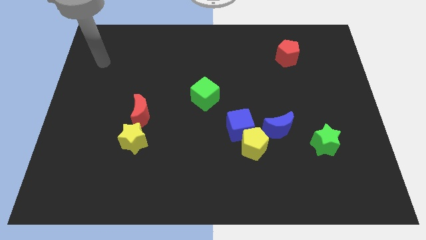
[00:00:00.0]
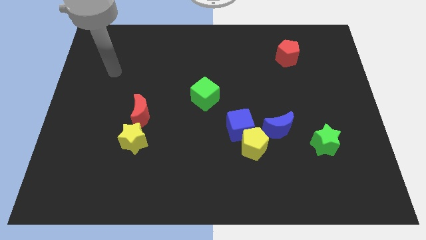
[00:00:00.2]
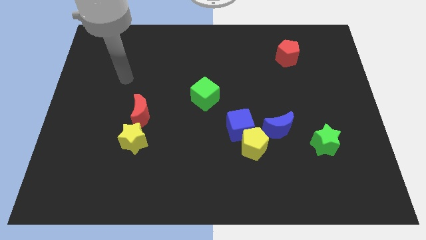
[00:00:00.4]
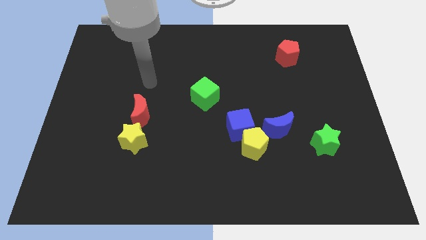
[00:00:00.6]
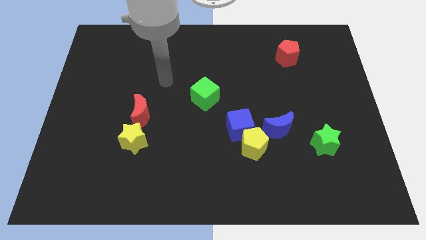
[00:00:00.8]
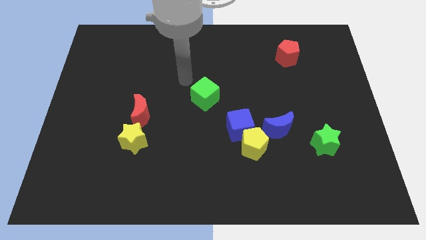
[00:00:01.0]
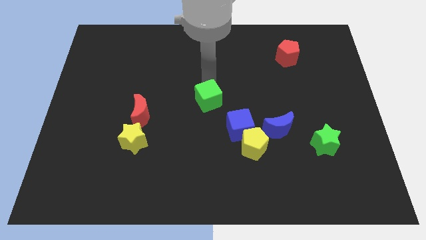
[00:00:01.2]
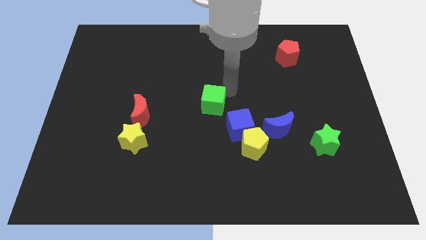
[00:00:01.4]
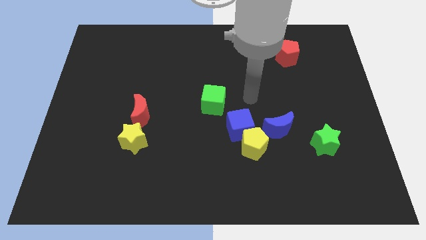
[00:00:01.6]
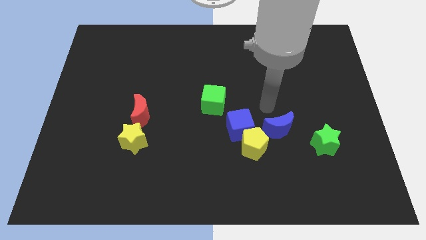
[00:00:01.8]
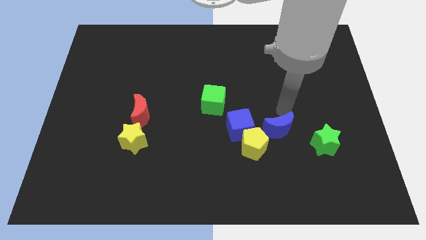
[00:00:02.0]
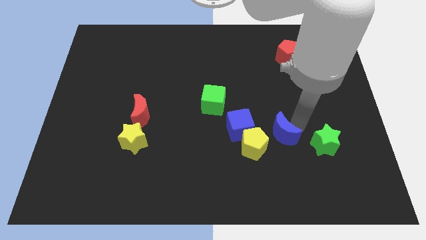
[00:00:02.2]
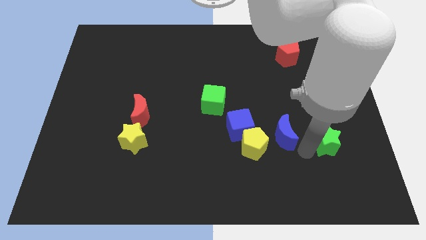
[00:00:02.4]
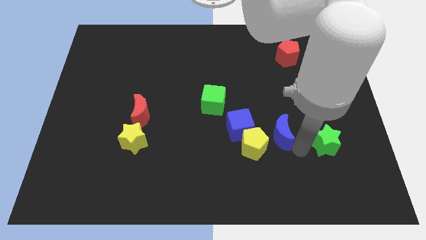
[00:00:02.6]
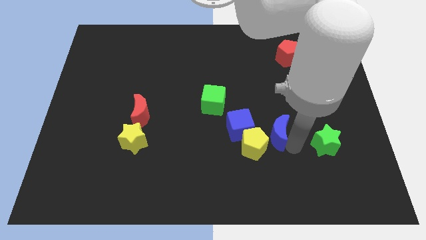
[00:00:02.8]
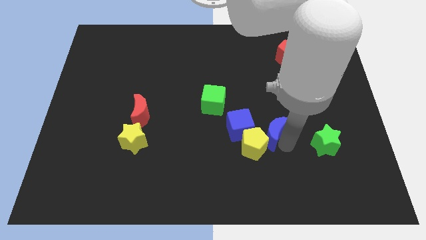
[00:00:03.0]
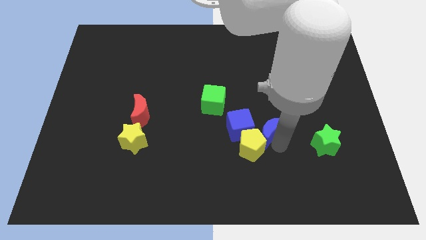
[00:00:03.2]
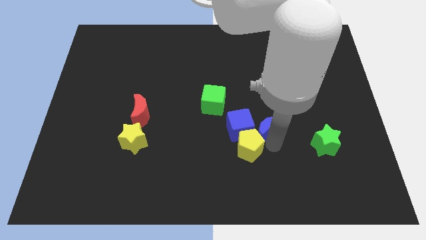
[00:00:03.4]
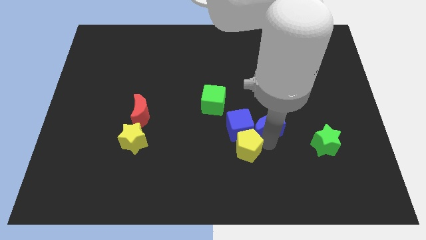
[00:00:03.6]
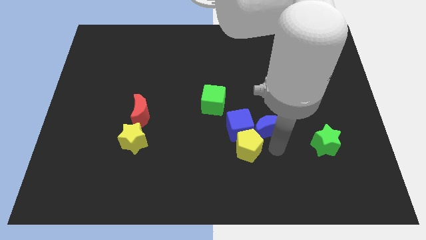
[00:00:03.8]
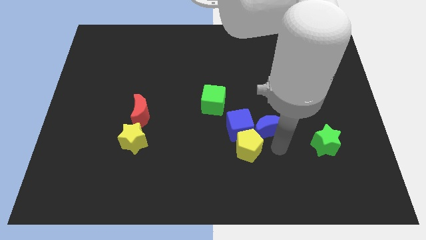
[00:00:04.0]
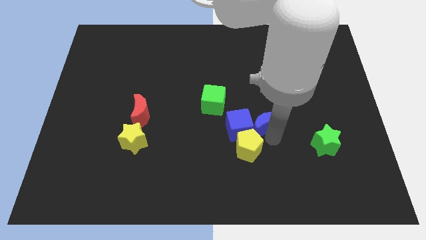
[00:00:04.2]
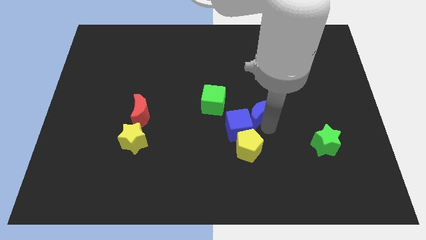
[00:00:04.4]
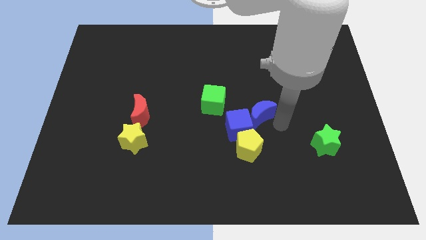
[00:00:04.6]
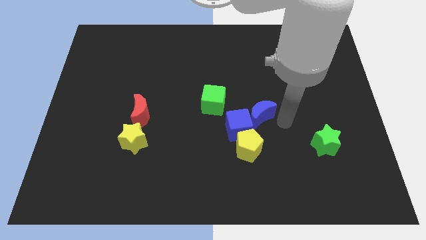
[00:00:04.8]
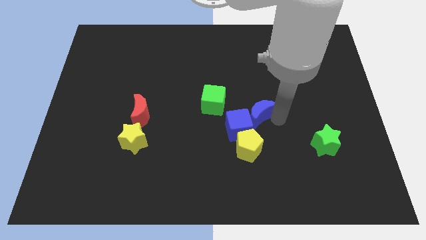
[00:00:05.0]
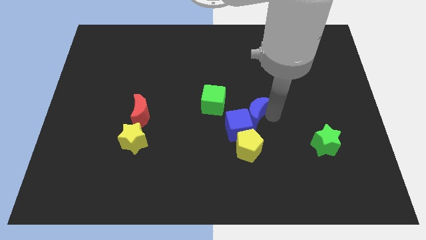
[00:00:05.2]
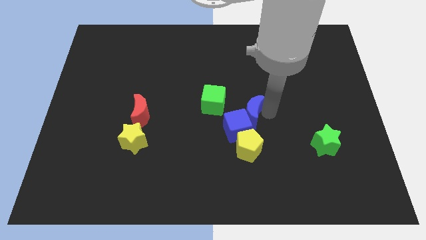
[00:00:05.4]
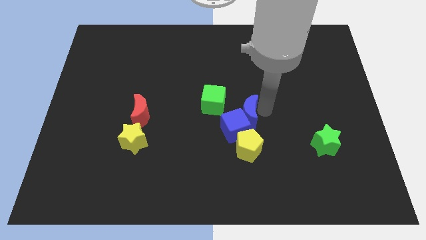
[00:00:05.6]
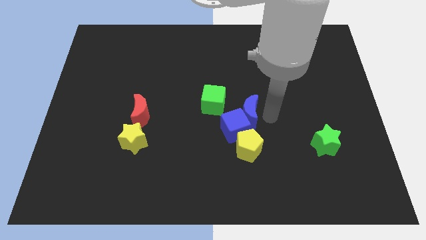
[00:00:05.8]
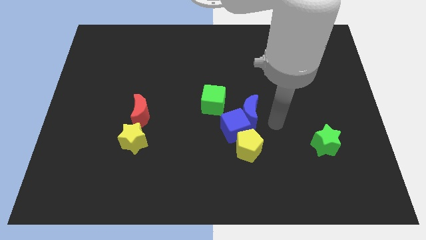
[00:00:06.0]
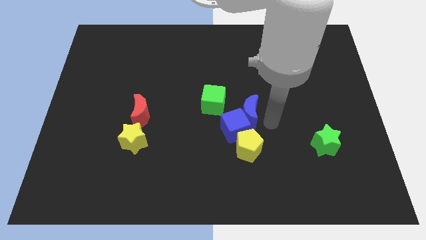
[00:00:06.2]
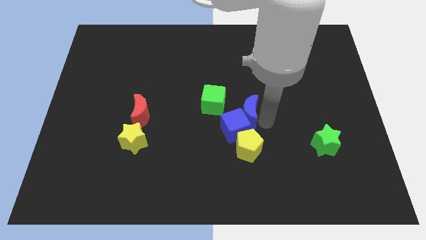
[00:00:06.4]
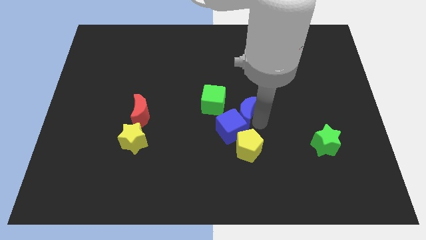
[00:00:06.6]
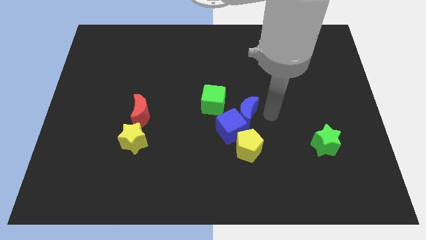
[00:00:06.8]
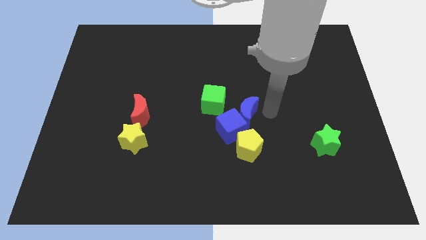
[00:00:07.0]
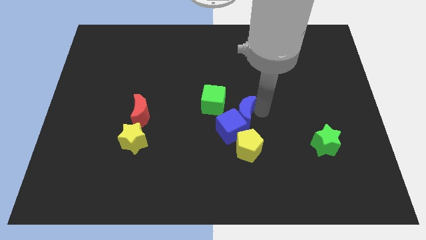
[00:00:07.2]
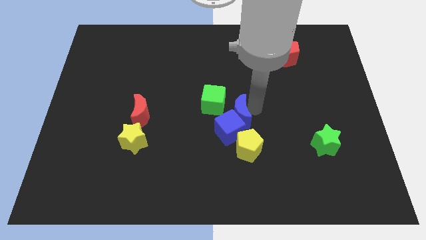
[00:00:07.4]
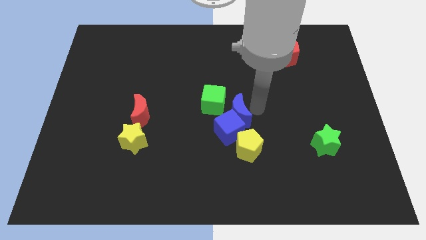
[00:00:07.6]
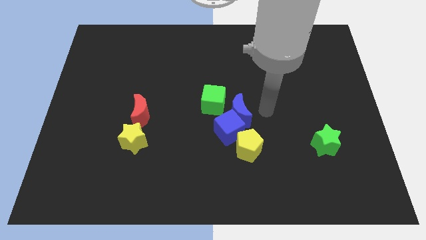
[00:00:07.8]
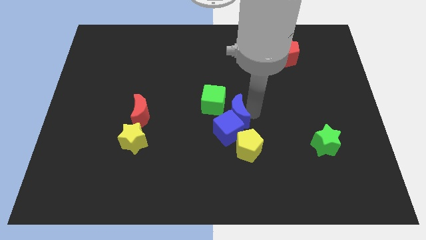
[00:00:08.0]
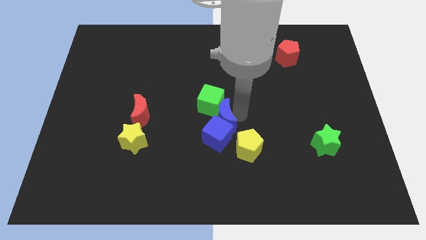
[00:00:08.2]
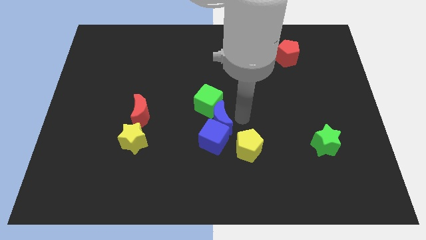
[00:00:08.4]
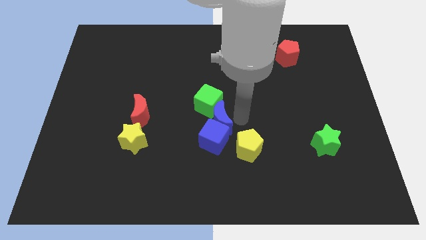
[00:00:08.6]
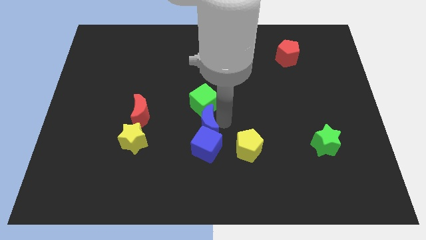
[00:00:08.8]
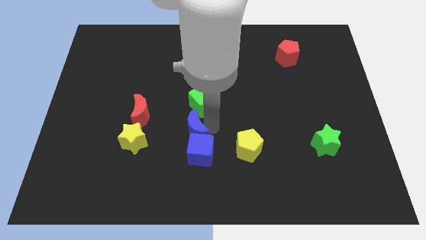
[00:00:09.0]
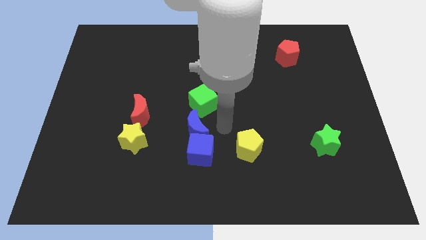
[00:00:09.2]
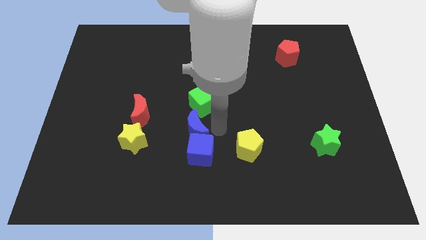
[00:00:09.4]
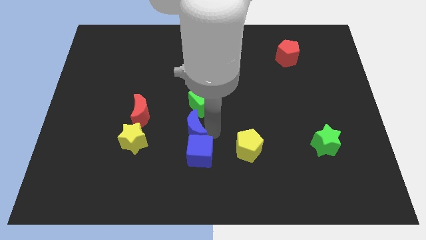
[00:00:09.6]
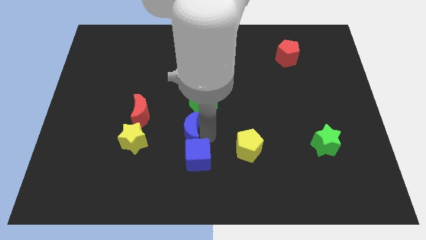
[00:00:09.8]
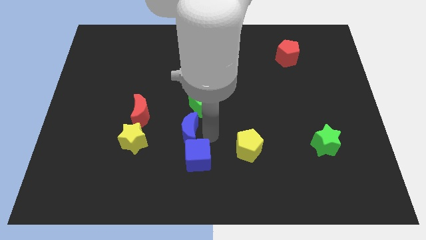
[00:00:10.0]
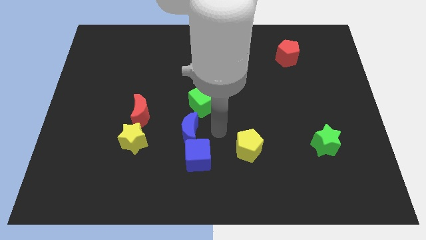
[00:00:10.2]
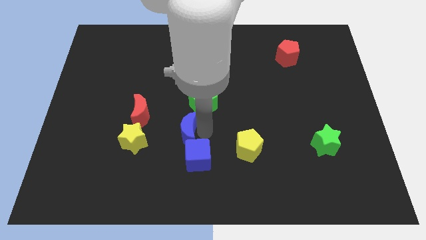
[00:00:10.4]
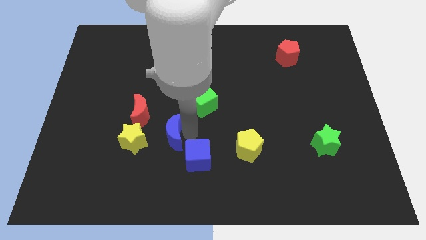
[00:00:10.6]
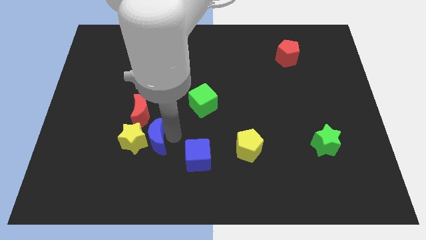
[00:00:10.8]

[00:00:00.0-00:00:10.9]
move the blue moon close to the yellow star

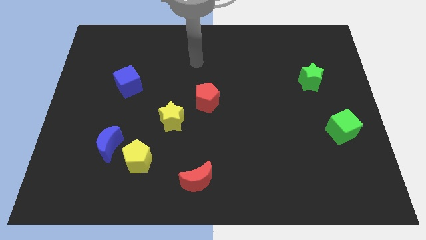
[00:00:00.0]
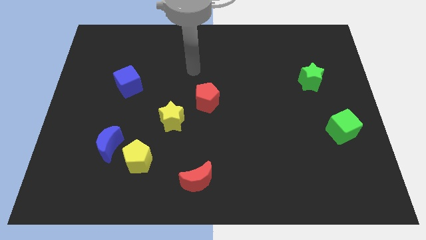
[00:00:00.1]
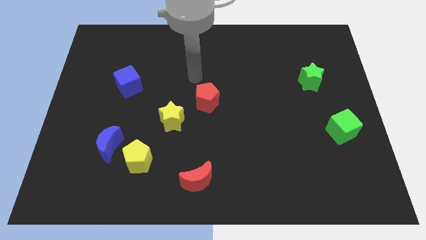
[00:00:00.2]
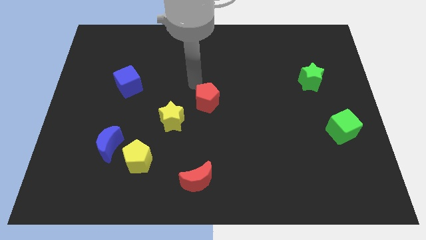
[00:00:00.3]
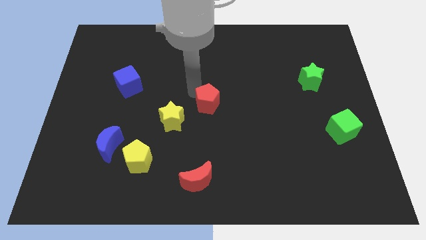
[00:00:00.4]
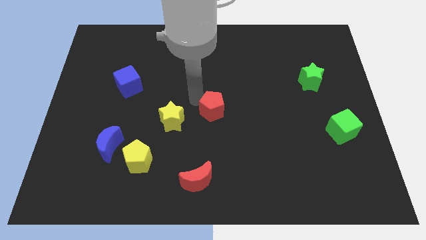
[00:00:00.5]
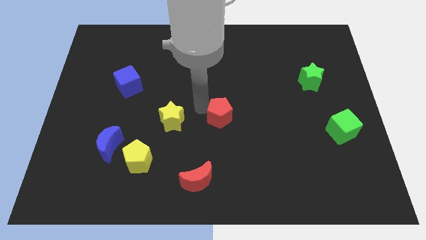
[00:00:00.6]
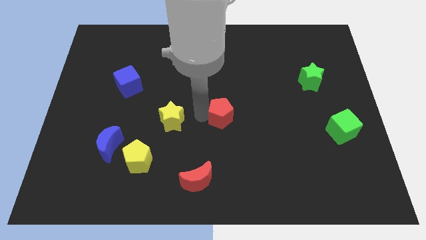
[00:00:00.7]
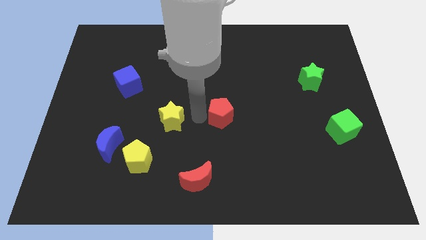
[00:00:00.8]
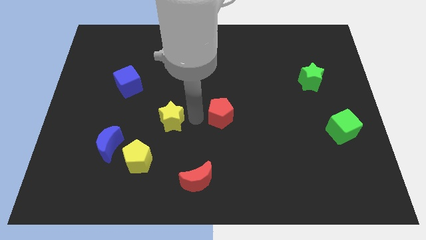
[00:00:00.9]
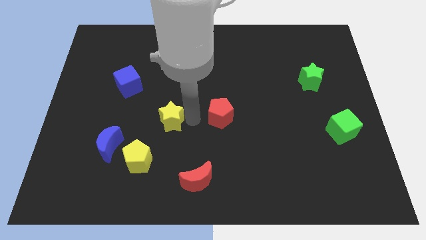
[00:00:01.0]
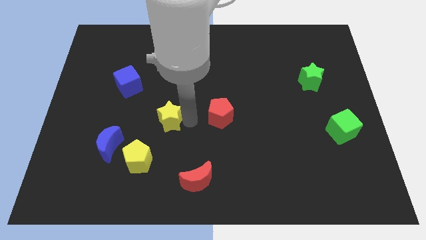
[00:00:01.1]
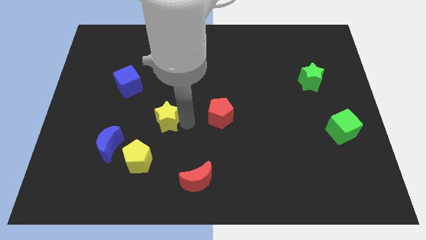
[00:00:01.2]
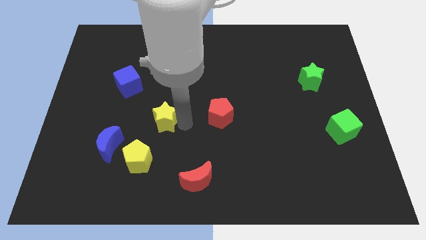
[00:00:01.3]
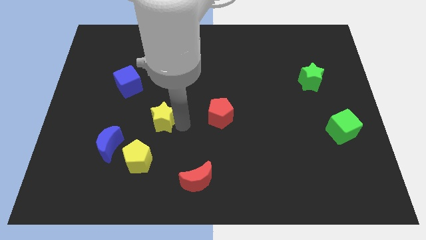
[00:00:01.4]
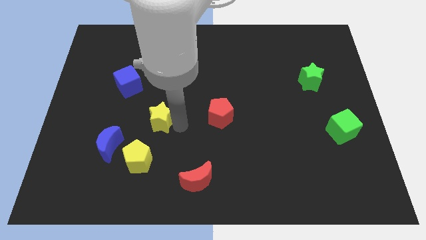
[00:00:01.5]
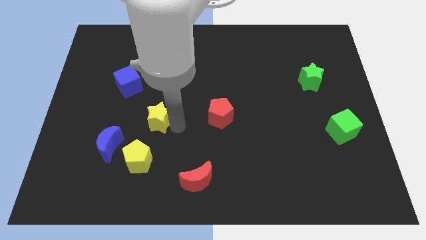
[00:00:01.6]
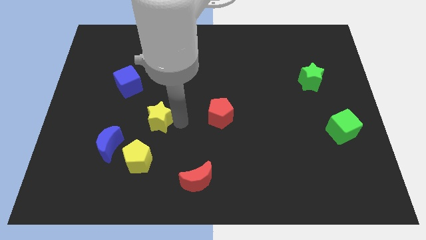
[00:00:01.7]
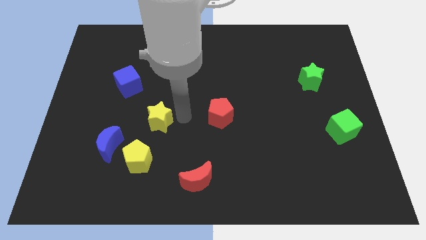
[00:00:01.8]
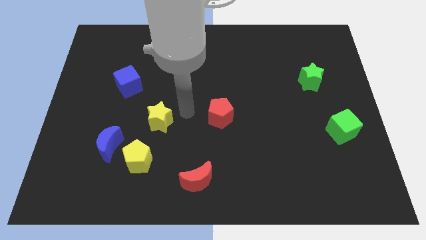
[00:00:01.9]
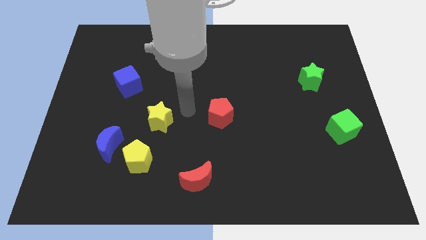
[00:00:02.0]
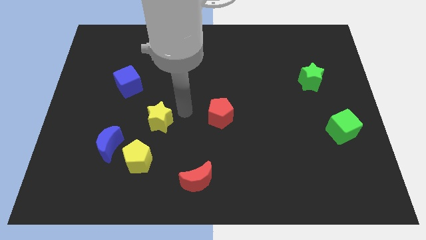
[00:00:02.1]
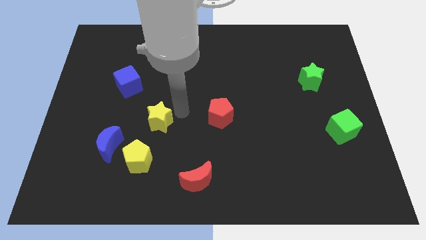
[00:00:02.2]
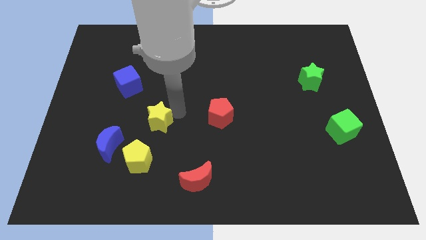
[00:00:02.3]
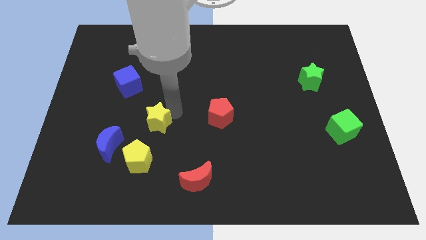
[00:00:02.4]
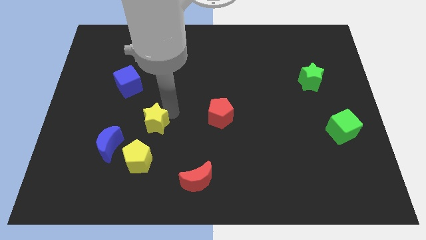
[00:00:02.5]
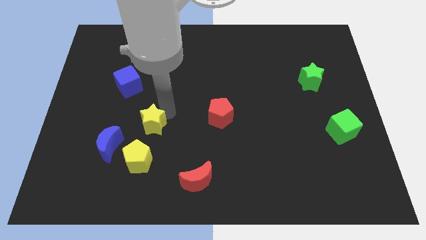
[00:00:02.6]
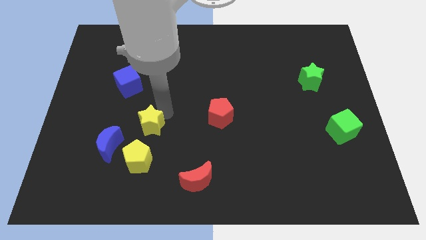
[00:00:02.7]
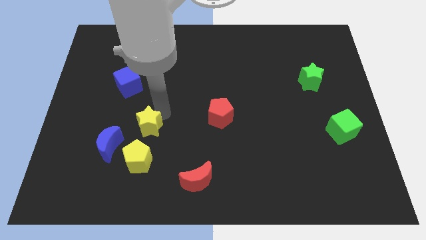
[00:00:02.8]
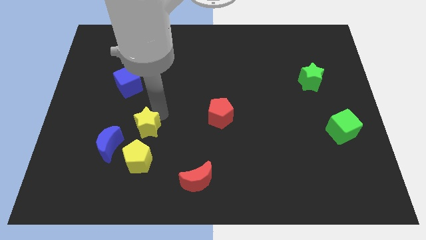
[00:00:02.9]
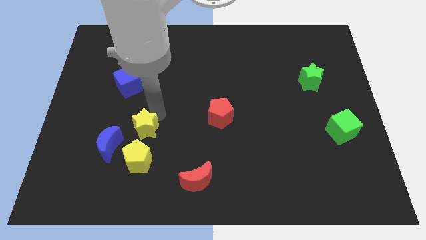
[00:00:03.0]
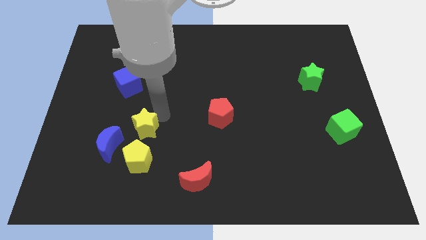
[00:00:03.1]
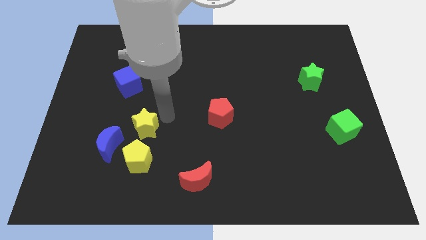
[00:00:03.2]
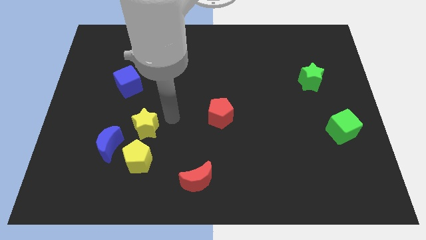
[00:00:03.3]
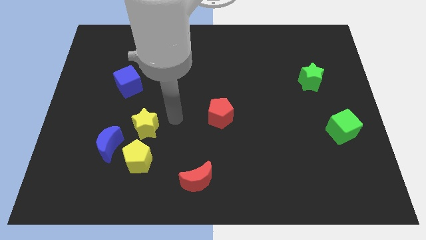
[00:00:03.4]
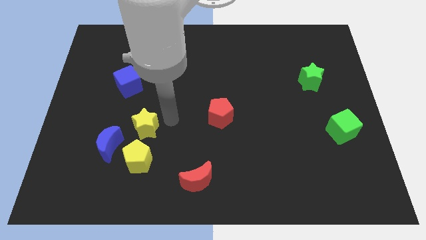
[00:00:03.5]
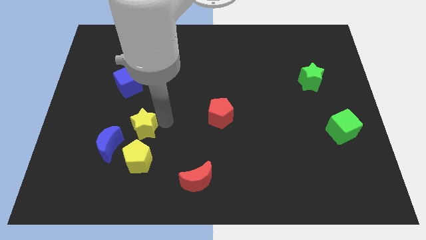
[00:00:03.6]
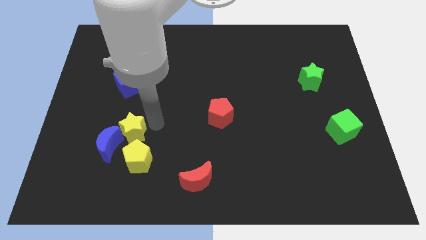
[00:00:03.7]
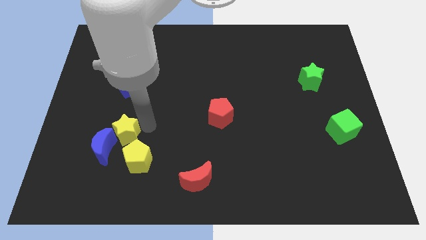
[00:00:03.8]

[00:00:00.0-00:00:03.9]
slide the yellow star next to the blue moon
